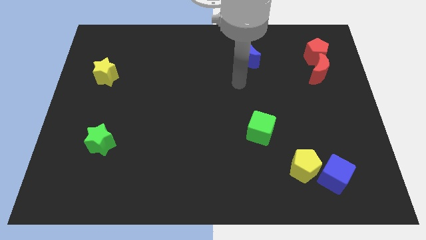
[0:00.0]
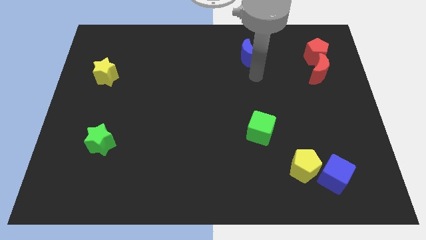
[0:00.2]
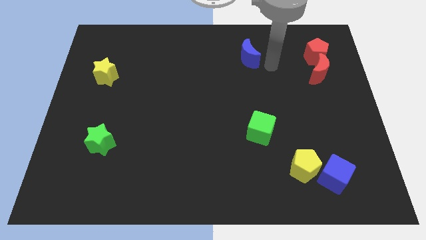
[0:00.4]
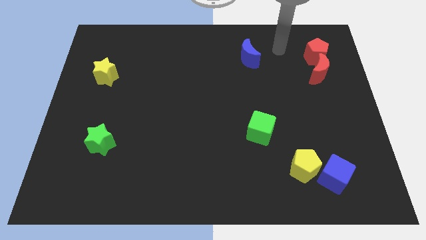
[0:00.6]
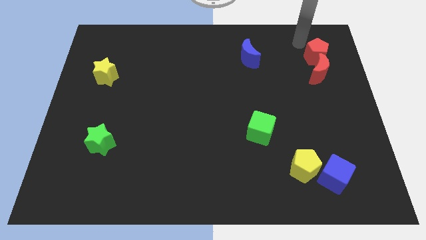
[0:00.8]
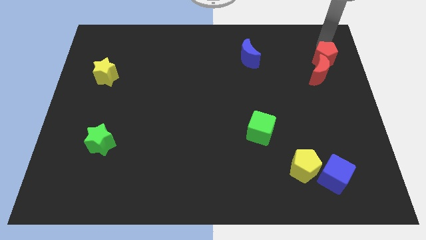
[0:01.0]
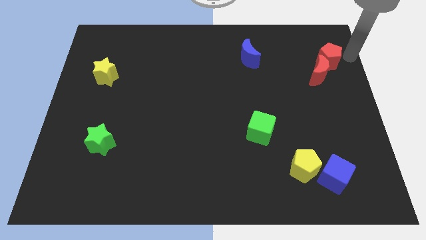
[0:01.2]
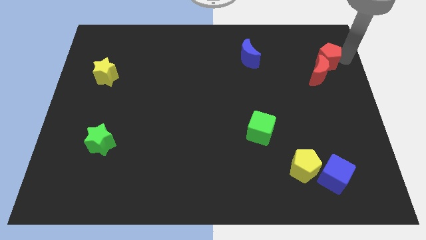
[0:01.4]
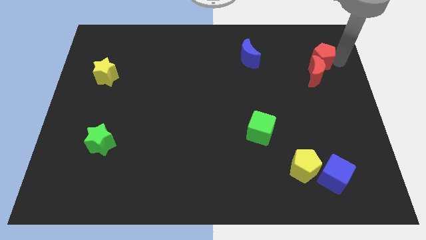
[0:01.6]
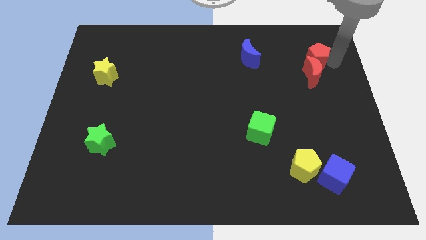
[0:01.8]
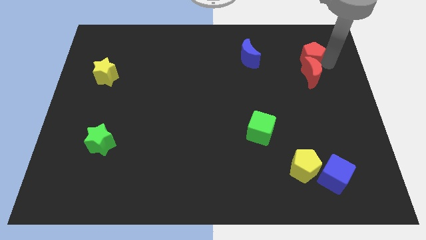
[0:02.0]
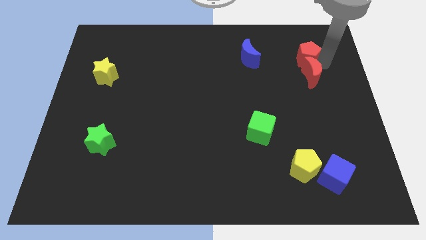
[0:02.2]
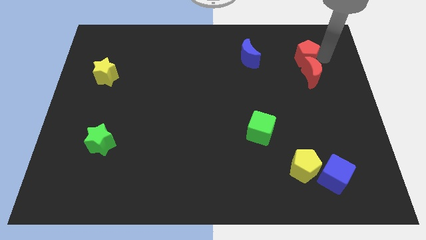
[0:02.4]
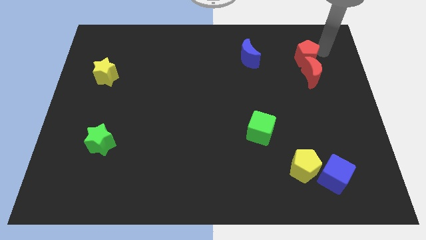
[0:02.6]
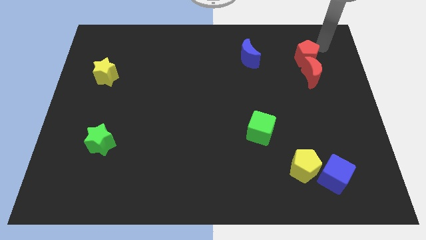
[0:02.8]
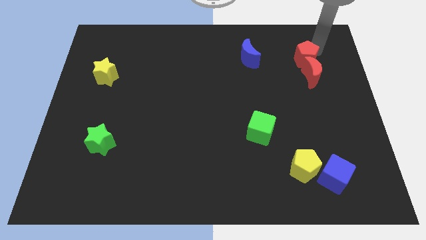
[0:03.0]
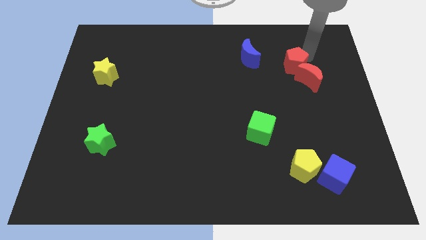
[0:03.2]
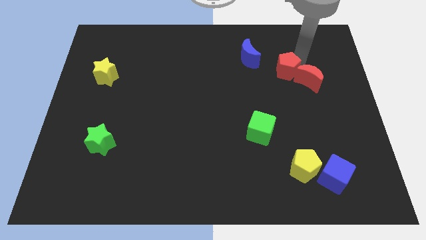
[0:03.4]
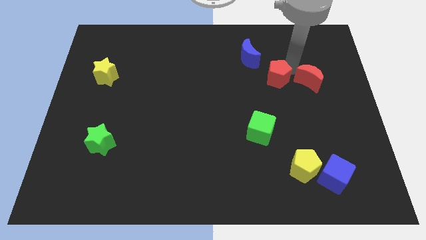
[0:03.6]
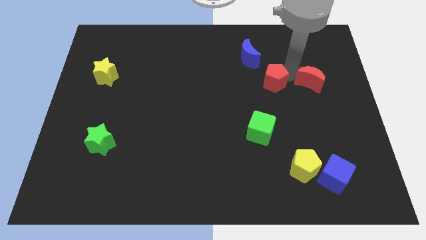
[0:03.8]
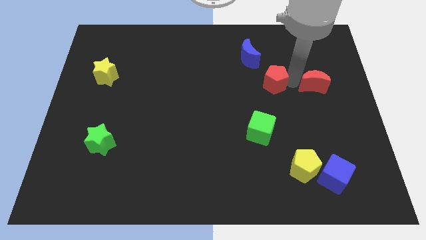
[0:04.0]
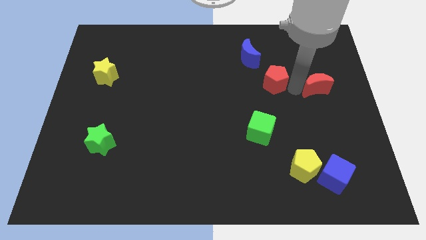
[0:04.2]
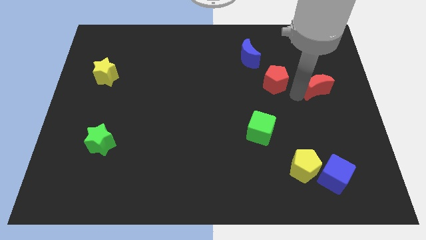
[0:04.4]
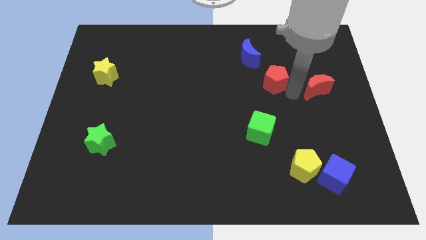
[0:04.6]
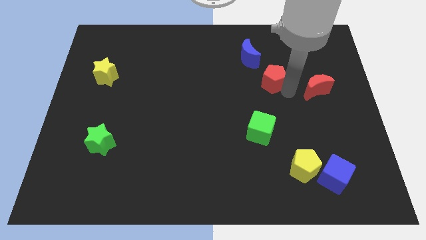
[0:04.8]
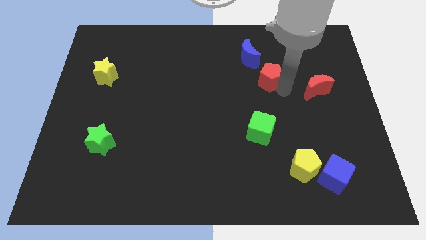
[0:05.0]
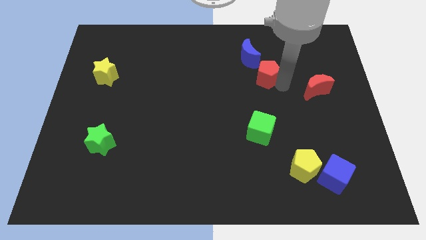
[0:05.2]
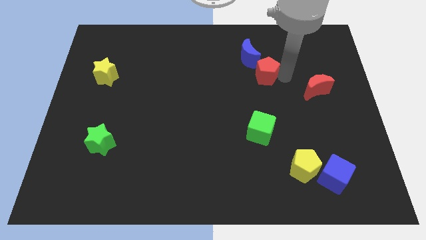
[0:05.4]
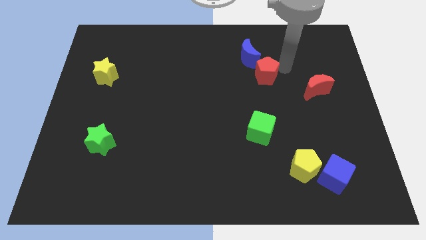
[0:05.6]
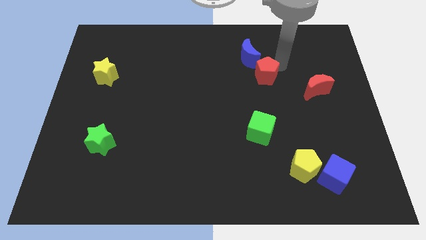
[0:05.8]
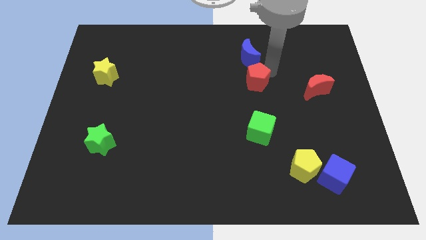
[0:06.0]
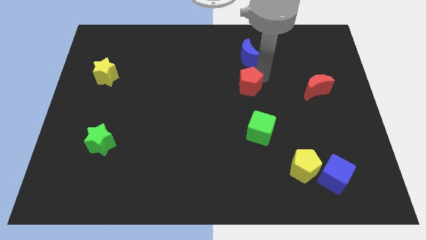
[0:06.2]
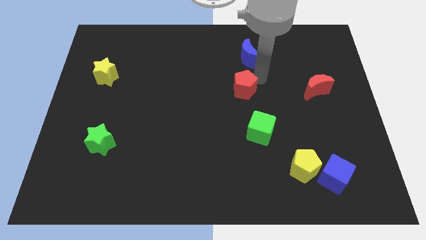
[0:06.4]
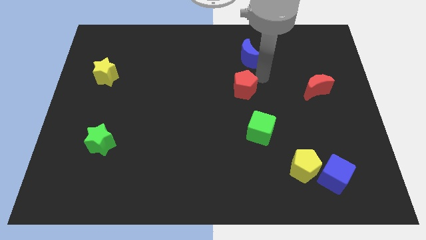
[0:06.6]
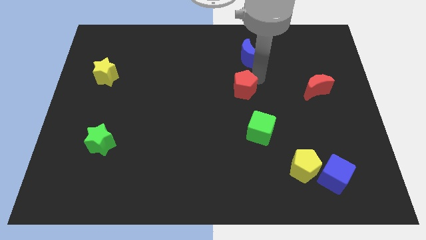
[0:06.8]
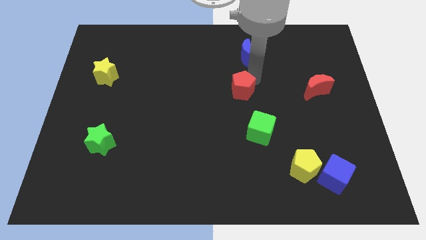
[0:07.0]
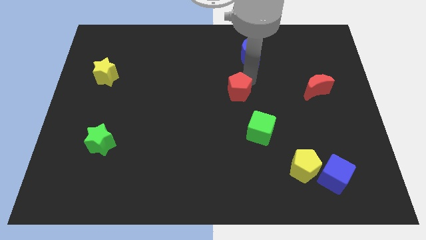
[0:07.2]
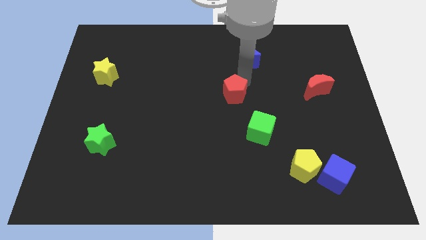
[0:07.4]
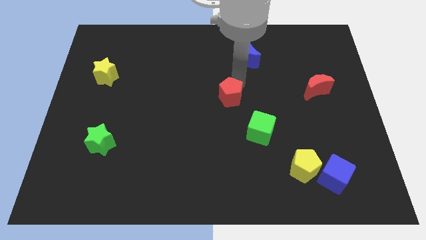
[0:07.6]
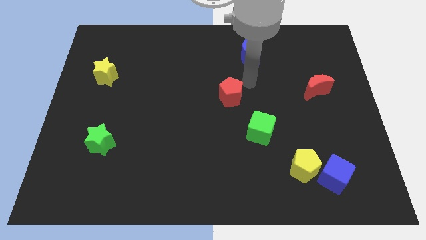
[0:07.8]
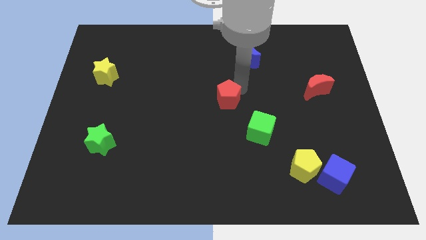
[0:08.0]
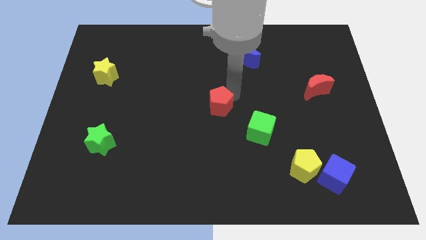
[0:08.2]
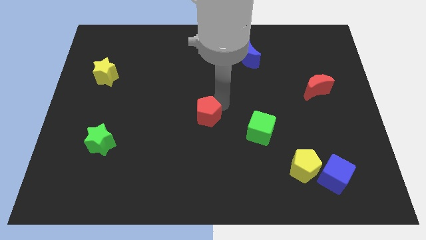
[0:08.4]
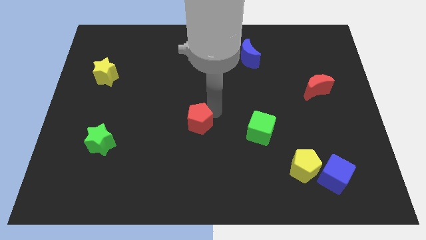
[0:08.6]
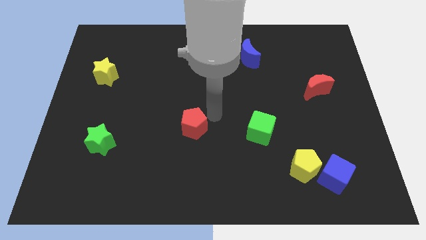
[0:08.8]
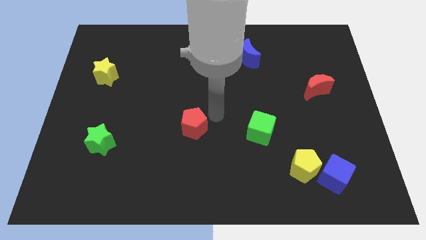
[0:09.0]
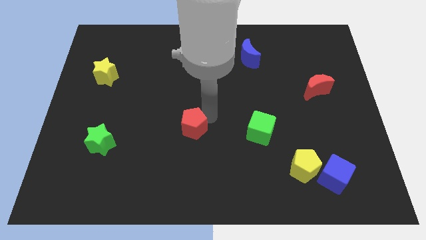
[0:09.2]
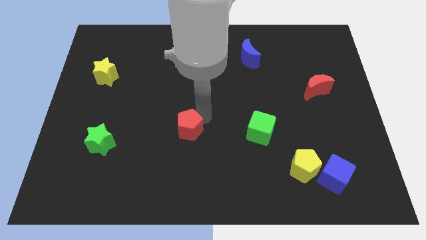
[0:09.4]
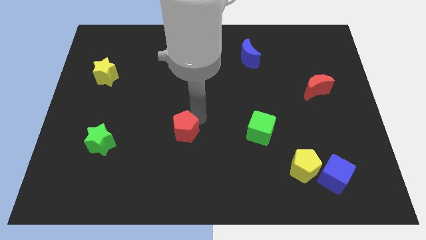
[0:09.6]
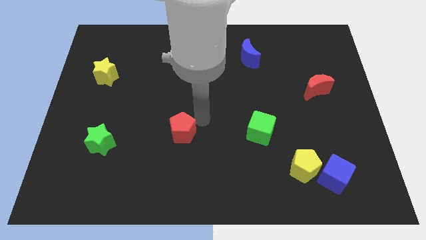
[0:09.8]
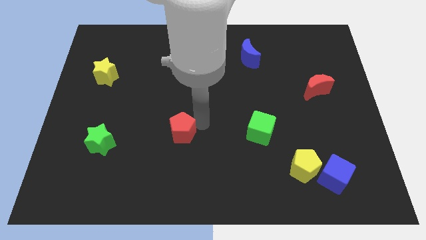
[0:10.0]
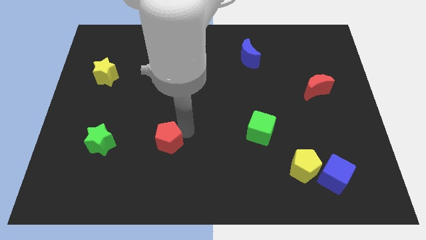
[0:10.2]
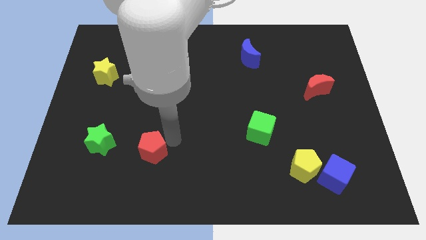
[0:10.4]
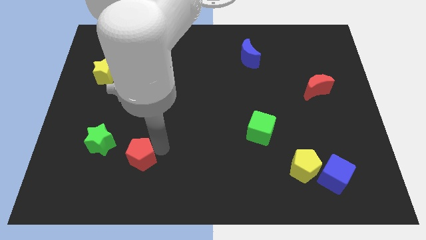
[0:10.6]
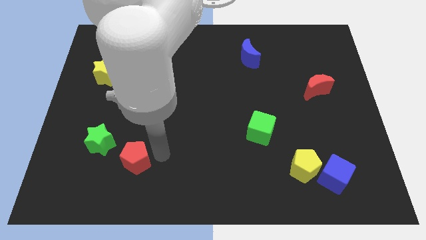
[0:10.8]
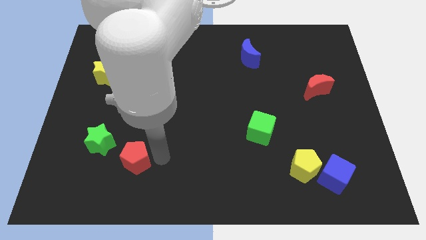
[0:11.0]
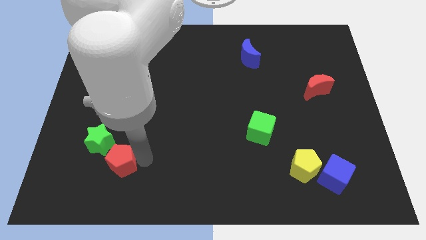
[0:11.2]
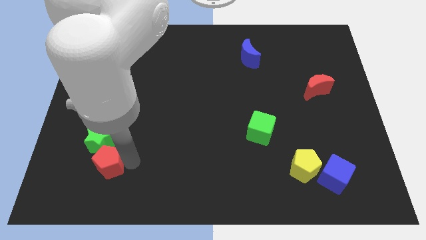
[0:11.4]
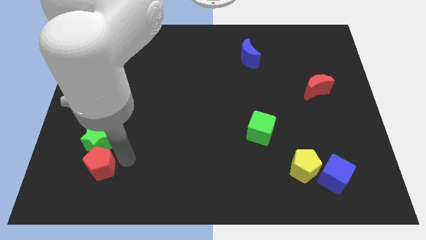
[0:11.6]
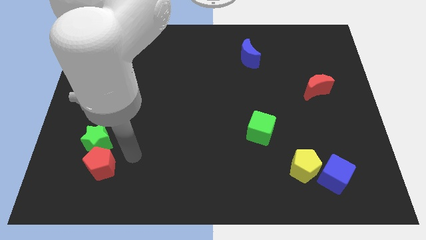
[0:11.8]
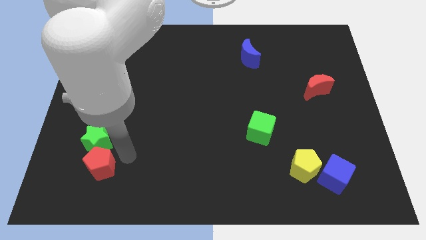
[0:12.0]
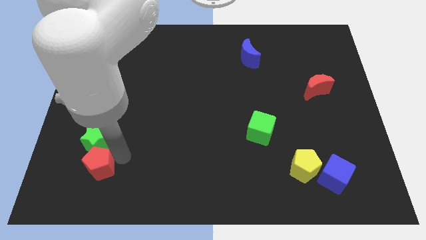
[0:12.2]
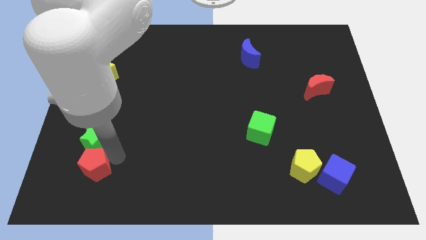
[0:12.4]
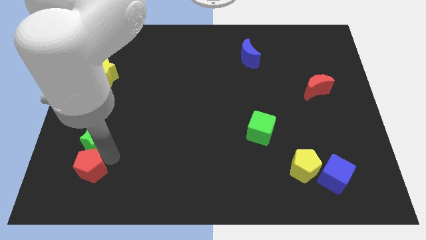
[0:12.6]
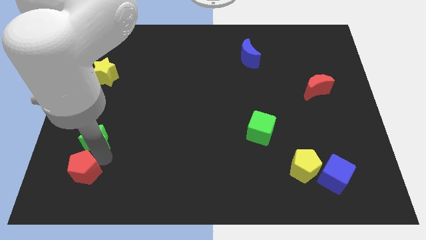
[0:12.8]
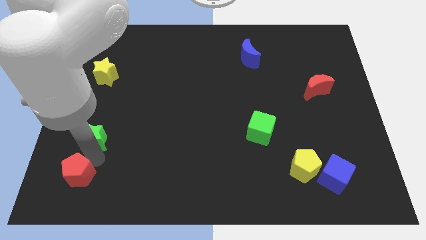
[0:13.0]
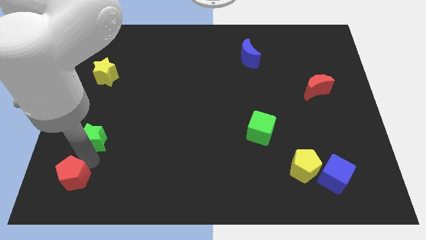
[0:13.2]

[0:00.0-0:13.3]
put the red pentagon to the bottom left

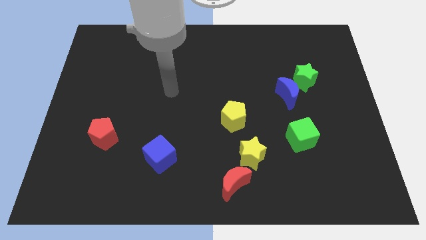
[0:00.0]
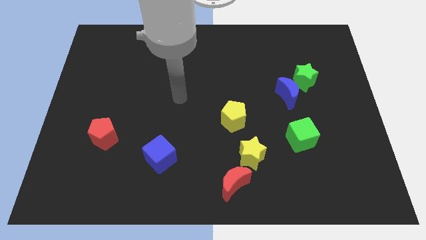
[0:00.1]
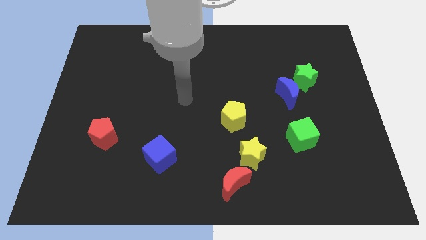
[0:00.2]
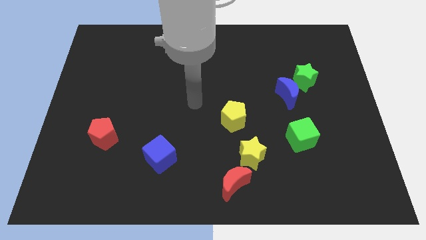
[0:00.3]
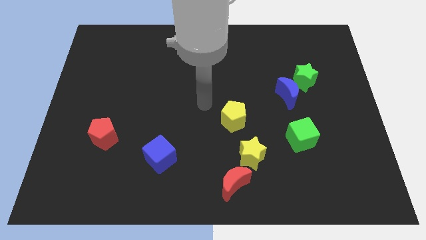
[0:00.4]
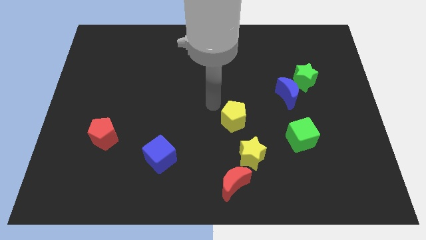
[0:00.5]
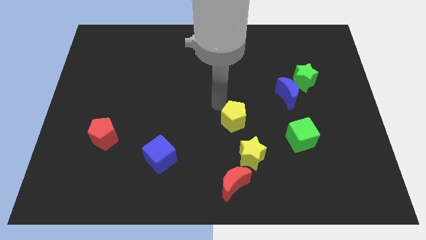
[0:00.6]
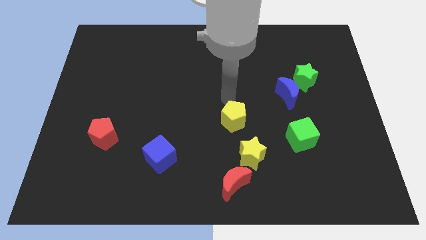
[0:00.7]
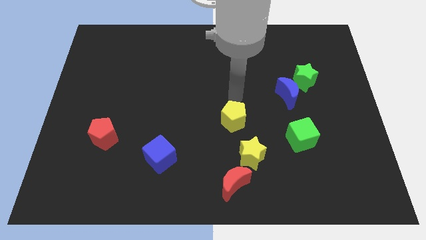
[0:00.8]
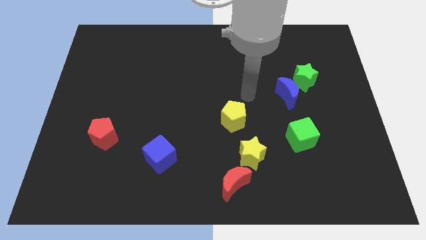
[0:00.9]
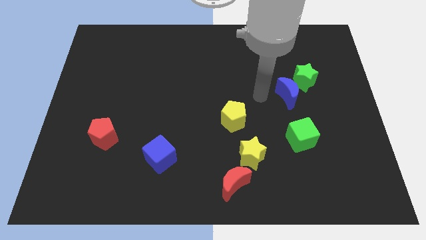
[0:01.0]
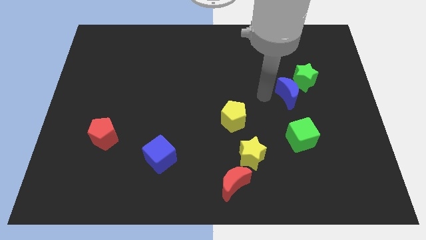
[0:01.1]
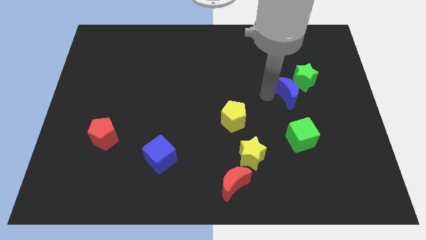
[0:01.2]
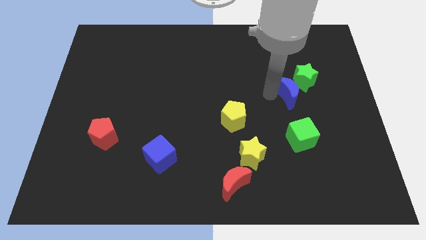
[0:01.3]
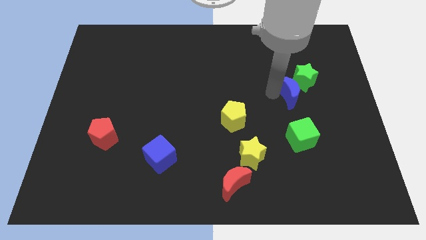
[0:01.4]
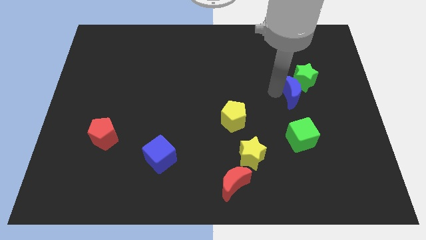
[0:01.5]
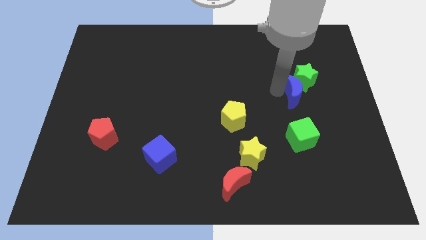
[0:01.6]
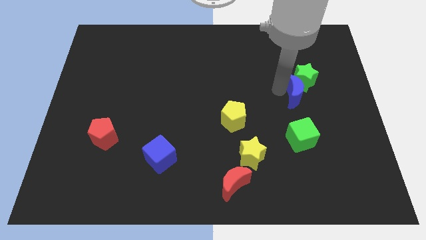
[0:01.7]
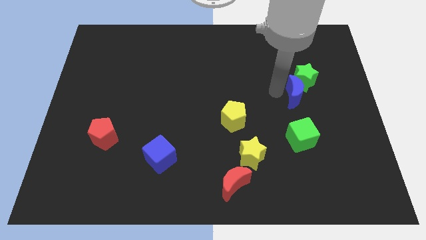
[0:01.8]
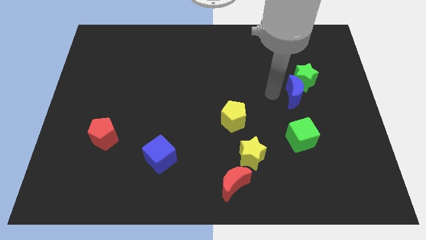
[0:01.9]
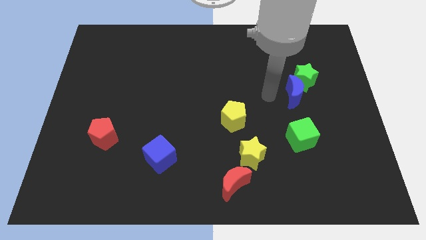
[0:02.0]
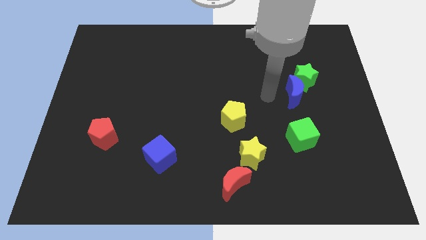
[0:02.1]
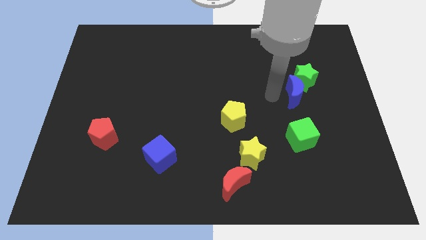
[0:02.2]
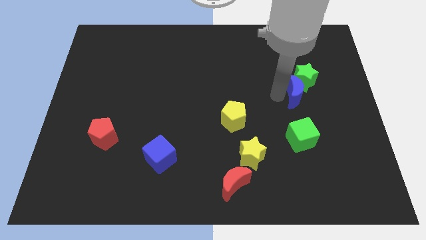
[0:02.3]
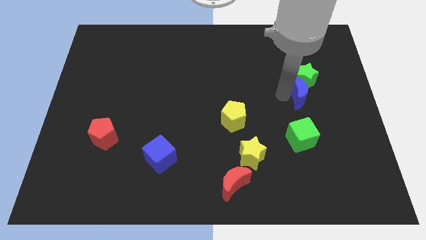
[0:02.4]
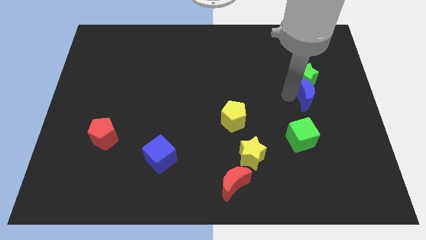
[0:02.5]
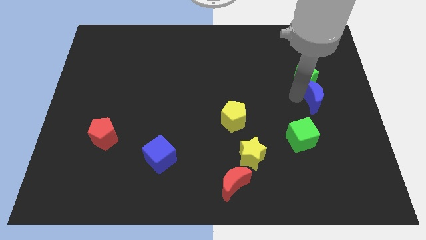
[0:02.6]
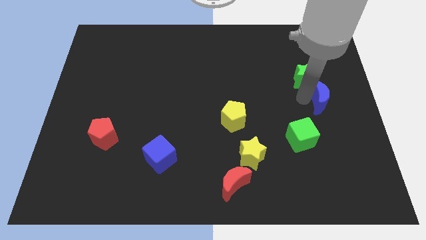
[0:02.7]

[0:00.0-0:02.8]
put the blue moon to the right side of the board
